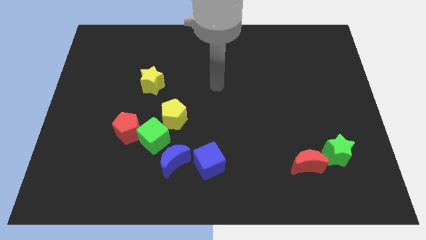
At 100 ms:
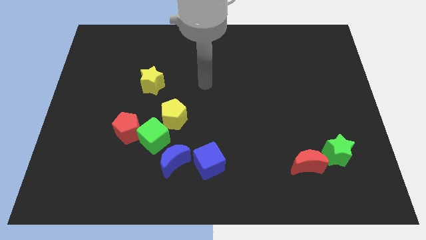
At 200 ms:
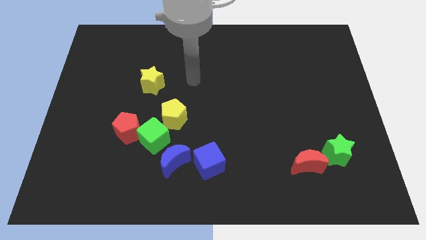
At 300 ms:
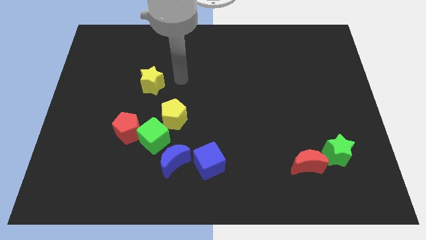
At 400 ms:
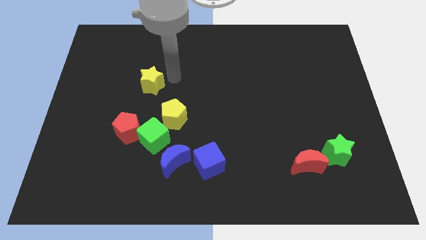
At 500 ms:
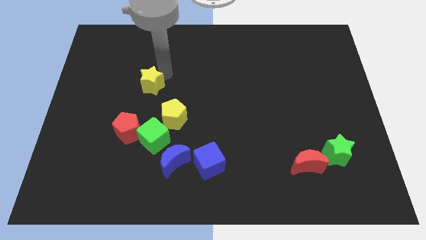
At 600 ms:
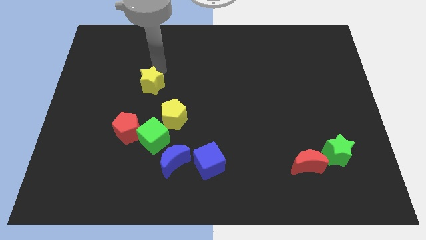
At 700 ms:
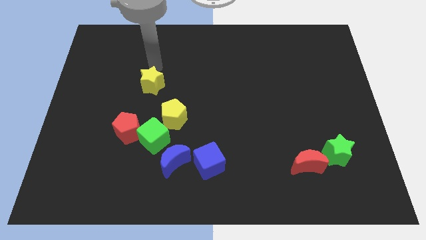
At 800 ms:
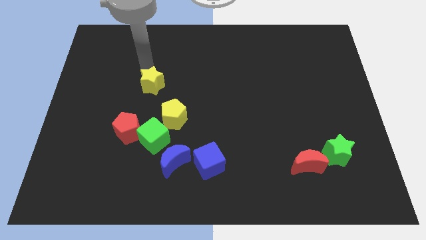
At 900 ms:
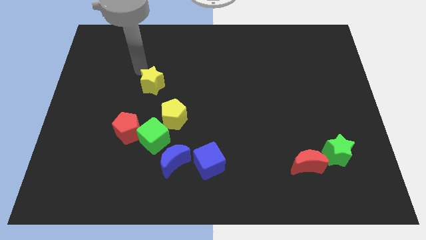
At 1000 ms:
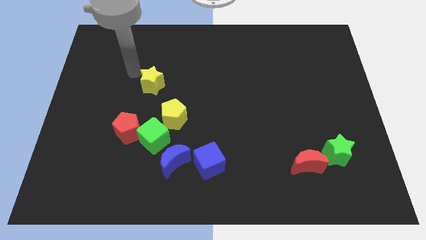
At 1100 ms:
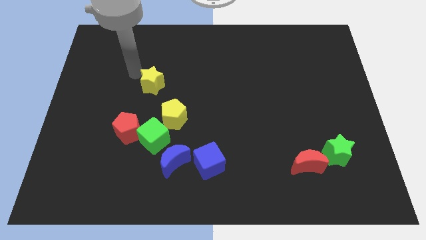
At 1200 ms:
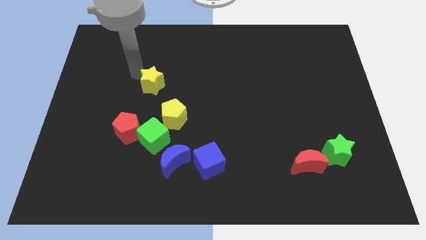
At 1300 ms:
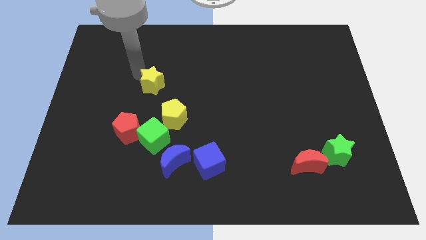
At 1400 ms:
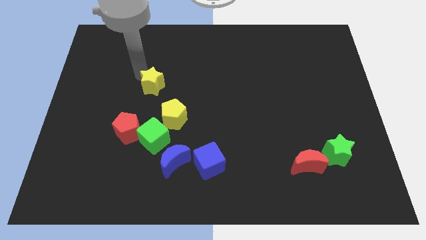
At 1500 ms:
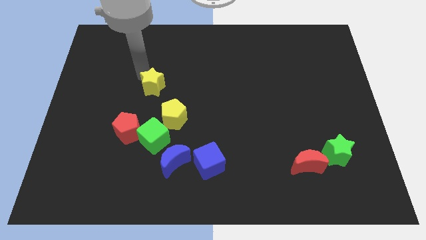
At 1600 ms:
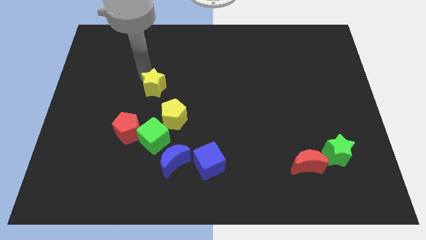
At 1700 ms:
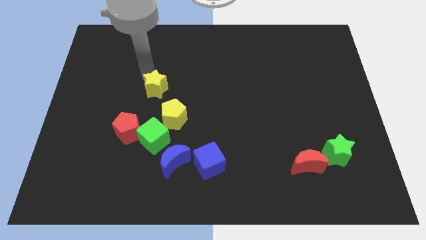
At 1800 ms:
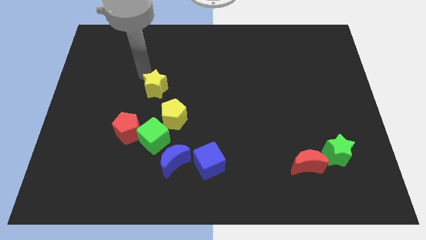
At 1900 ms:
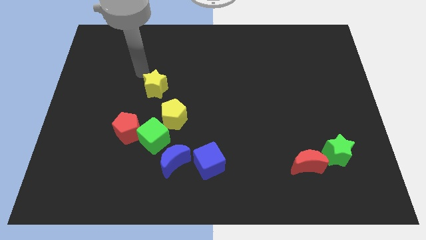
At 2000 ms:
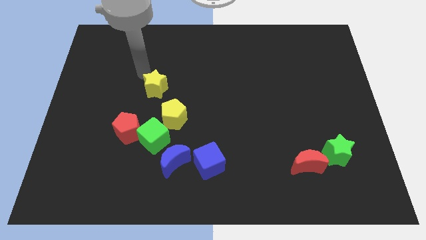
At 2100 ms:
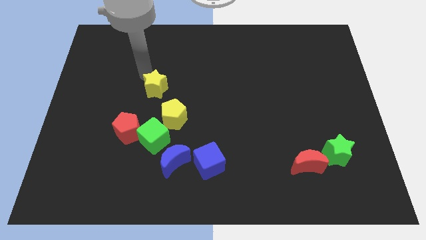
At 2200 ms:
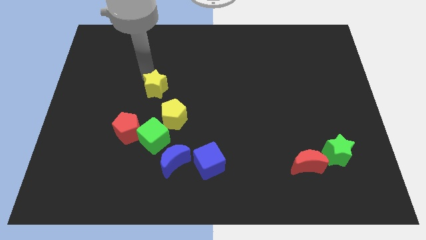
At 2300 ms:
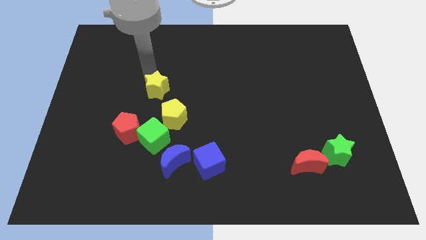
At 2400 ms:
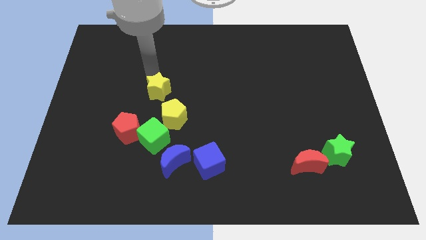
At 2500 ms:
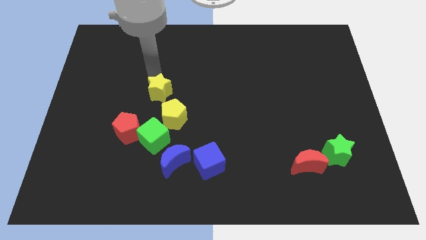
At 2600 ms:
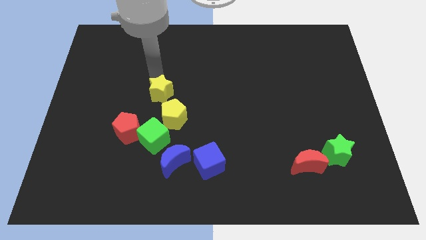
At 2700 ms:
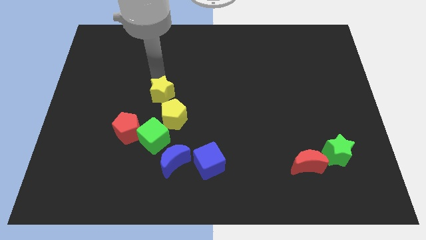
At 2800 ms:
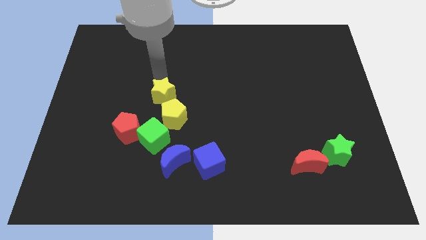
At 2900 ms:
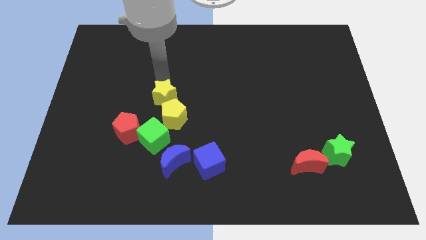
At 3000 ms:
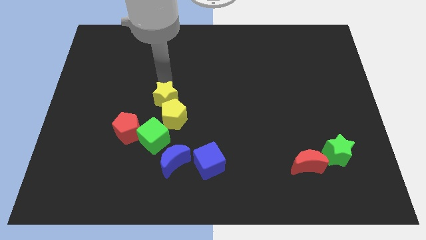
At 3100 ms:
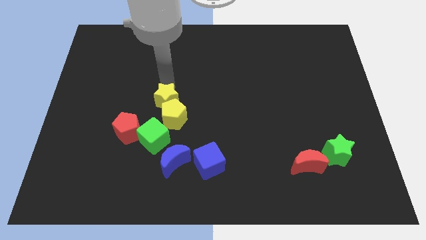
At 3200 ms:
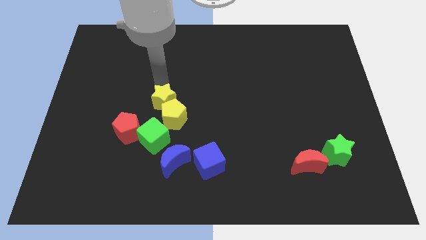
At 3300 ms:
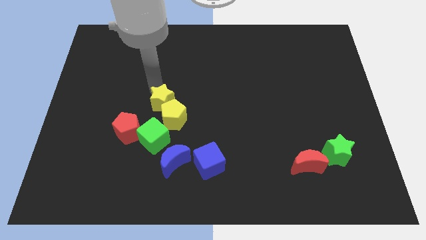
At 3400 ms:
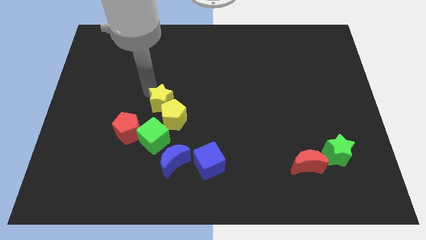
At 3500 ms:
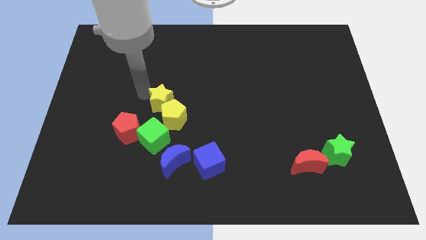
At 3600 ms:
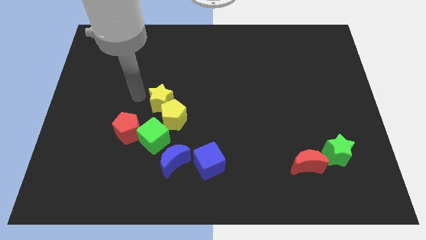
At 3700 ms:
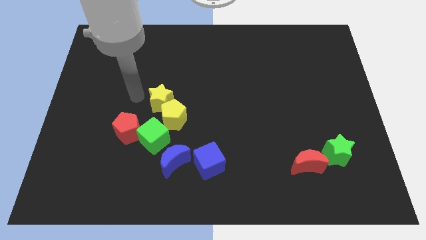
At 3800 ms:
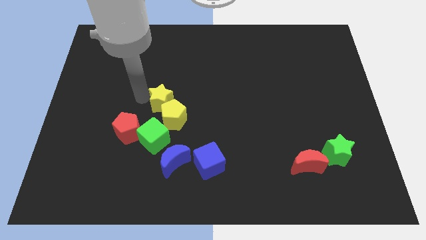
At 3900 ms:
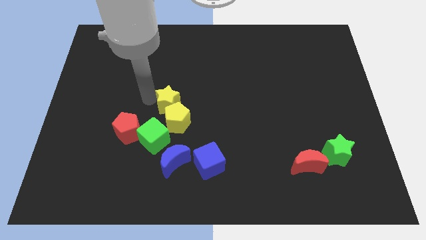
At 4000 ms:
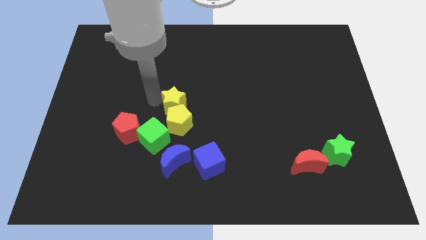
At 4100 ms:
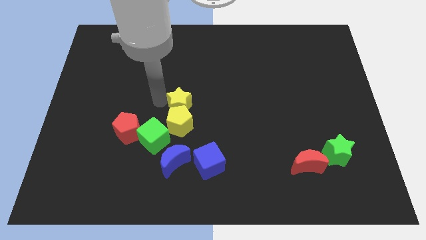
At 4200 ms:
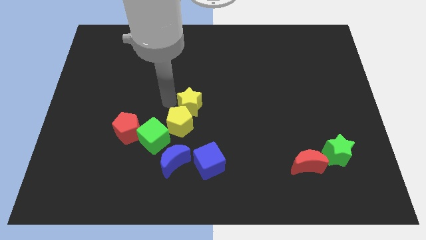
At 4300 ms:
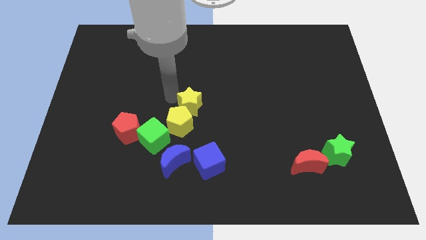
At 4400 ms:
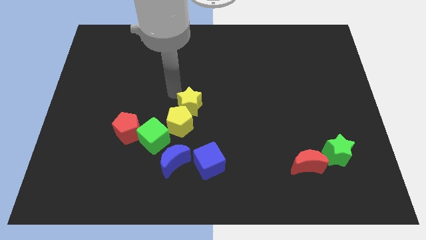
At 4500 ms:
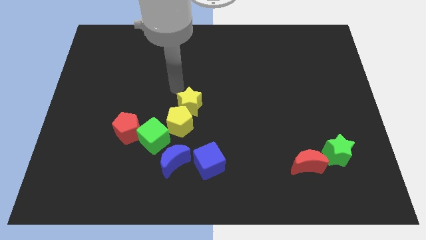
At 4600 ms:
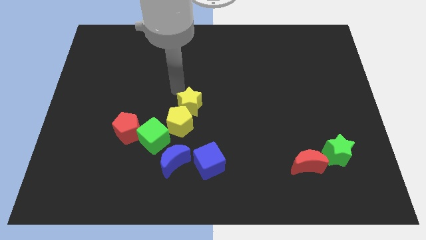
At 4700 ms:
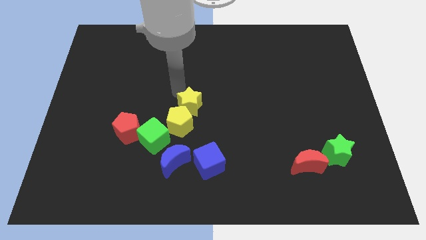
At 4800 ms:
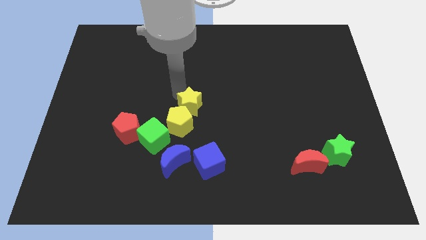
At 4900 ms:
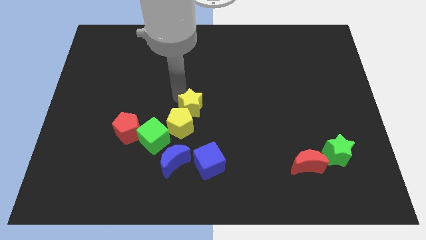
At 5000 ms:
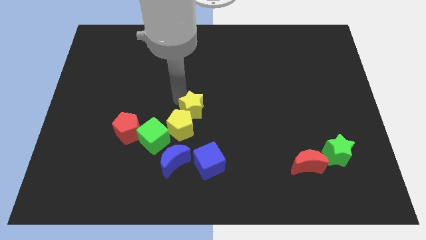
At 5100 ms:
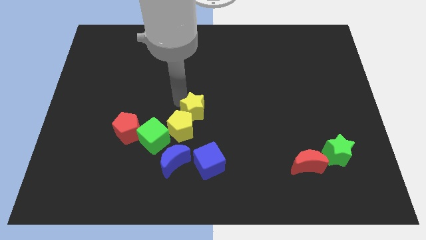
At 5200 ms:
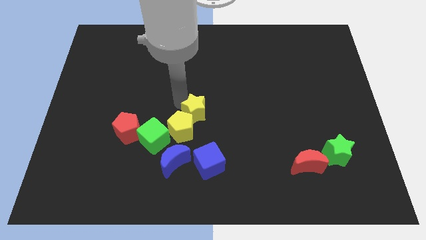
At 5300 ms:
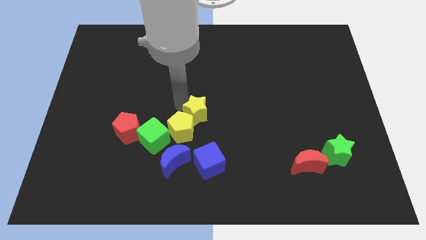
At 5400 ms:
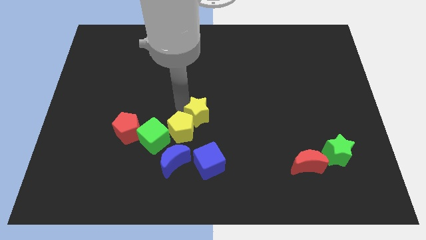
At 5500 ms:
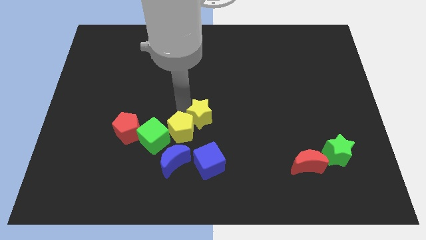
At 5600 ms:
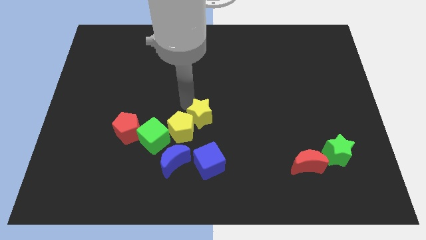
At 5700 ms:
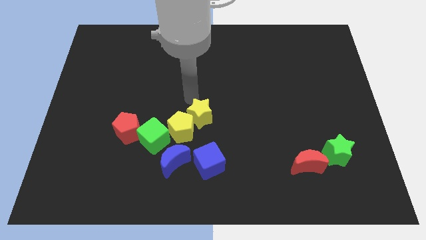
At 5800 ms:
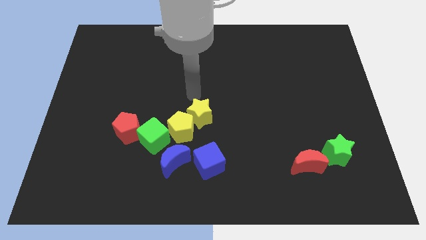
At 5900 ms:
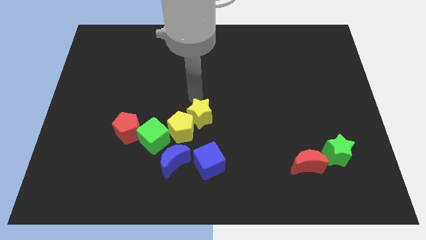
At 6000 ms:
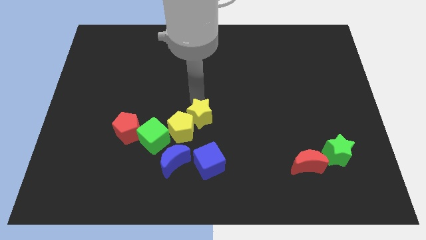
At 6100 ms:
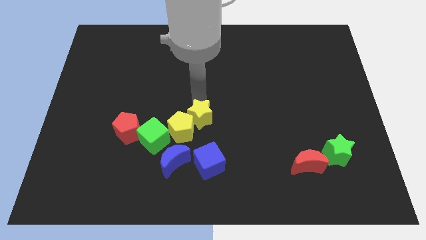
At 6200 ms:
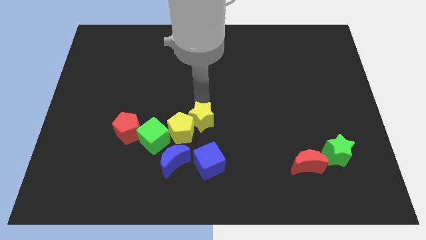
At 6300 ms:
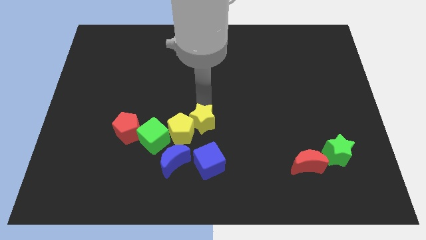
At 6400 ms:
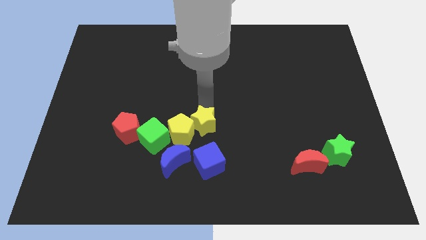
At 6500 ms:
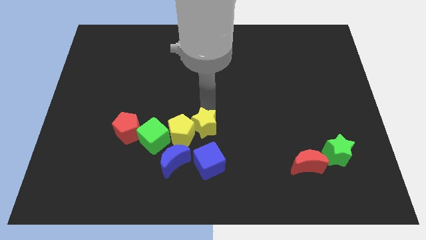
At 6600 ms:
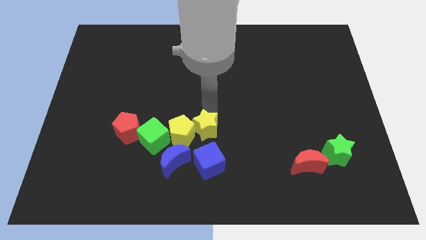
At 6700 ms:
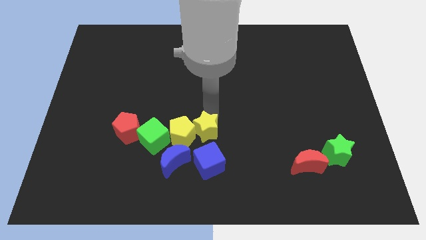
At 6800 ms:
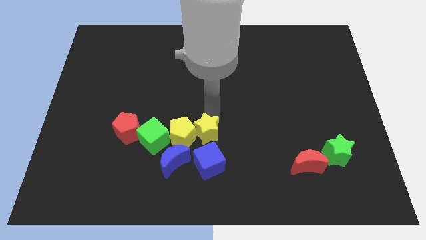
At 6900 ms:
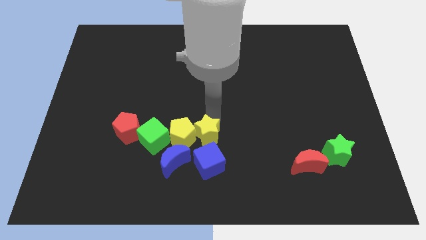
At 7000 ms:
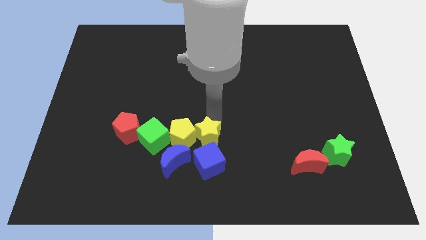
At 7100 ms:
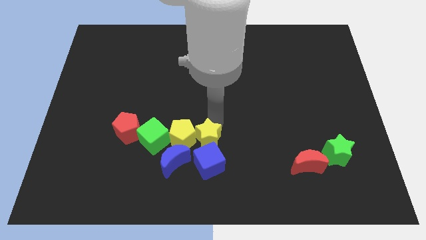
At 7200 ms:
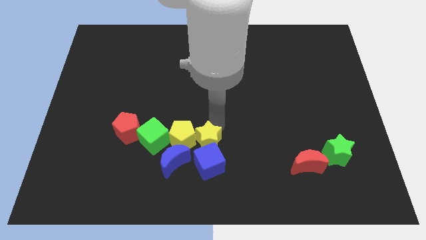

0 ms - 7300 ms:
push the yellow star to the blue cube
